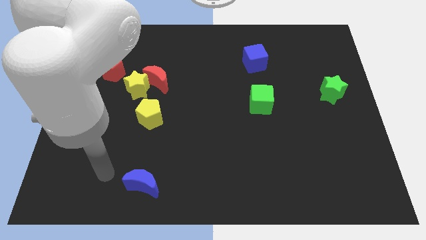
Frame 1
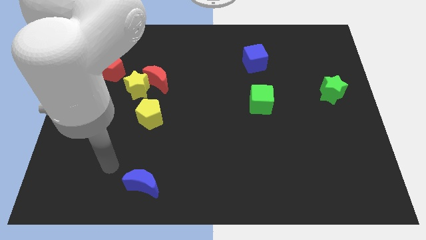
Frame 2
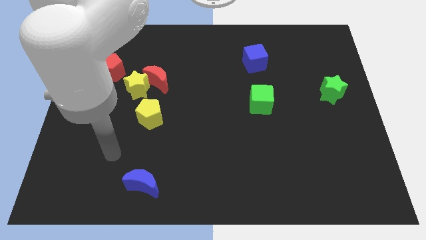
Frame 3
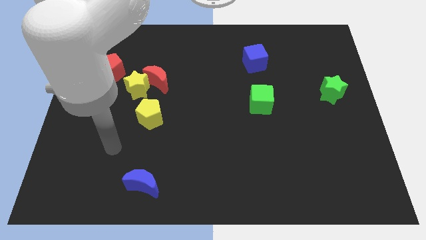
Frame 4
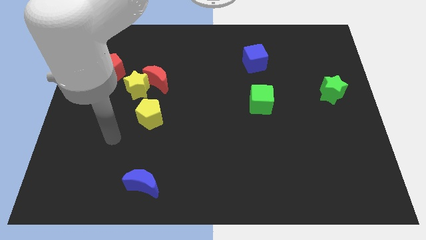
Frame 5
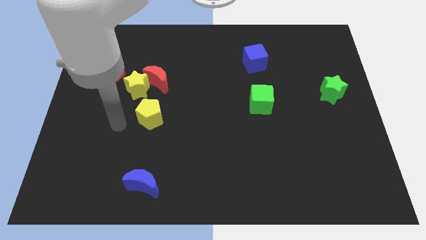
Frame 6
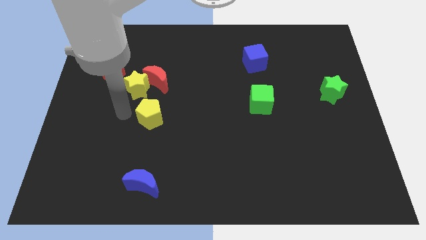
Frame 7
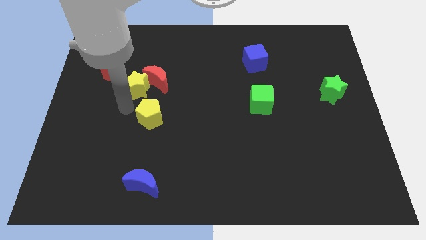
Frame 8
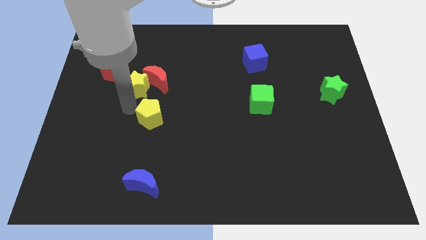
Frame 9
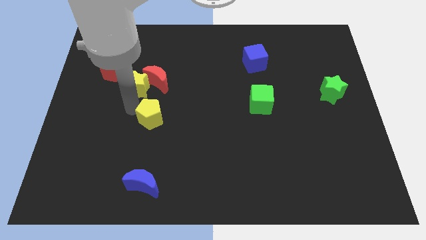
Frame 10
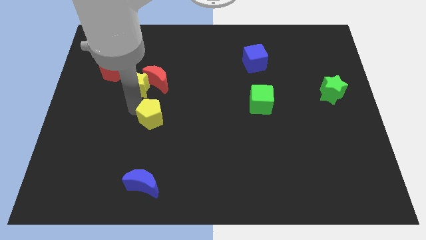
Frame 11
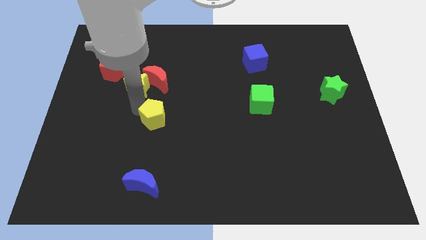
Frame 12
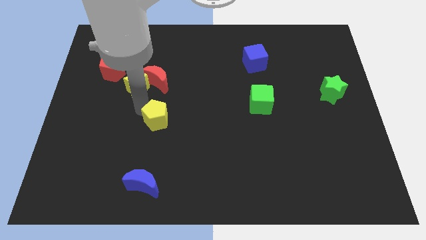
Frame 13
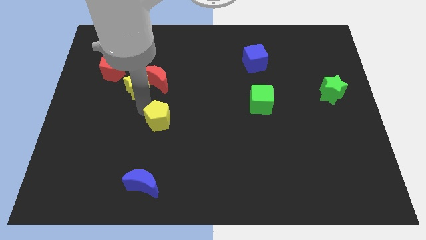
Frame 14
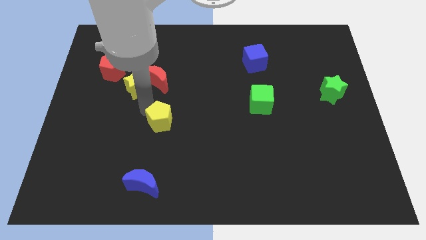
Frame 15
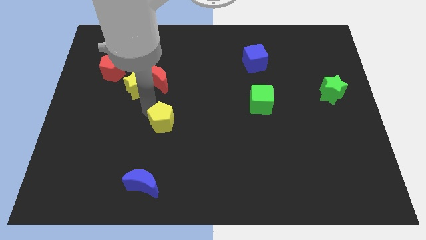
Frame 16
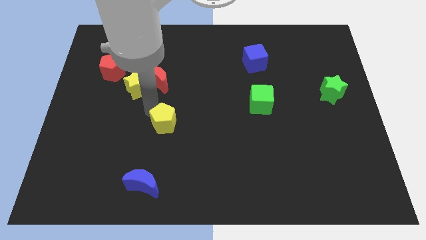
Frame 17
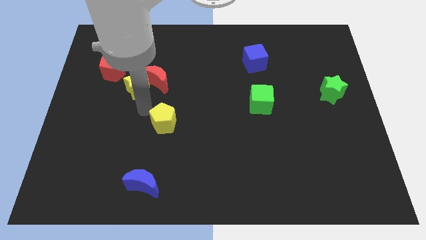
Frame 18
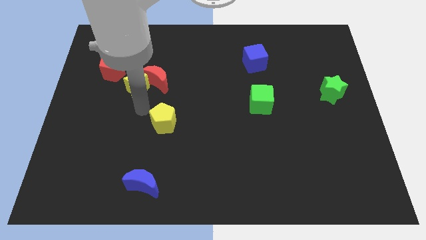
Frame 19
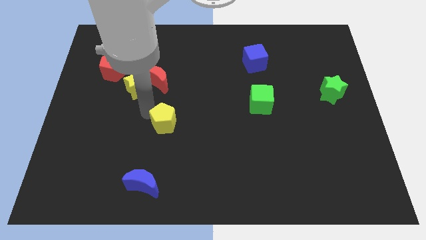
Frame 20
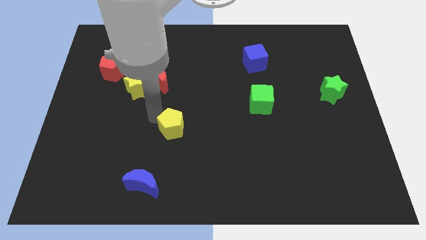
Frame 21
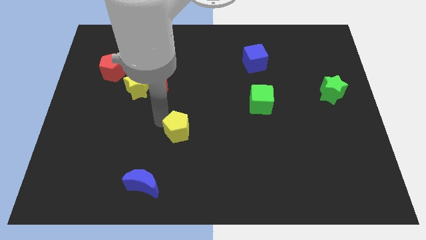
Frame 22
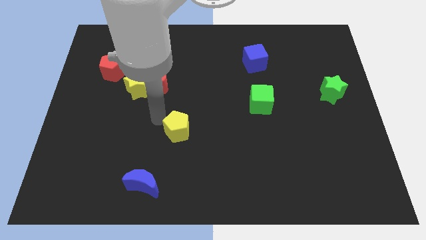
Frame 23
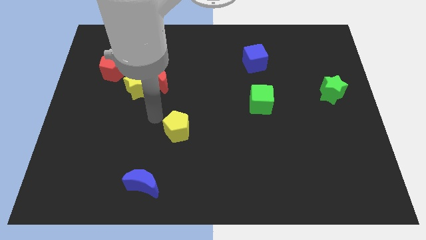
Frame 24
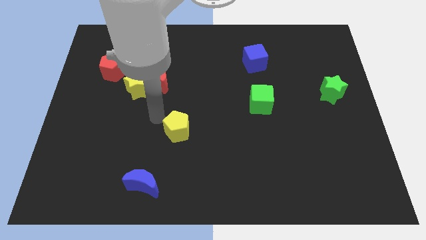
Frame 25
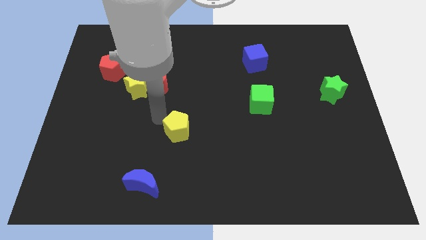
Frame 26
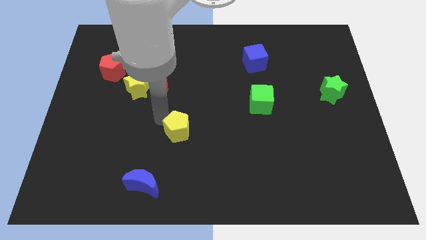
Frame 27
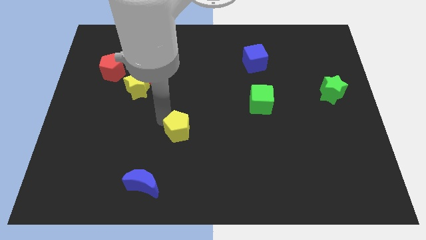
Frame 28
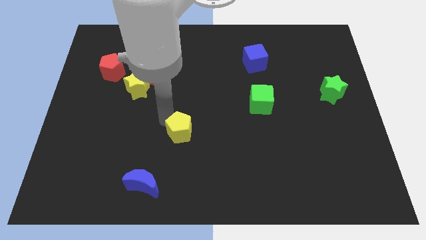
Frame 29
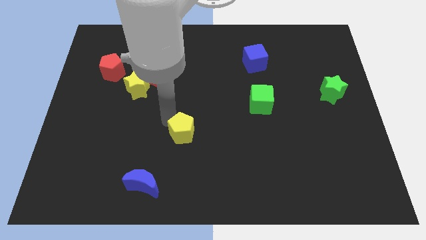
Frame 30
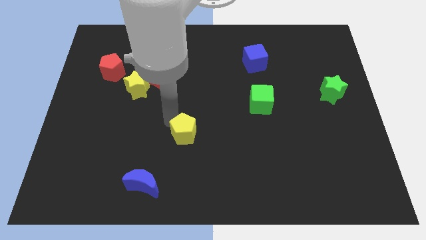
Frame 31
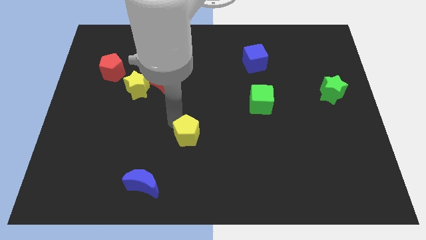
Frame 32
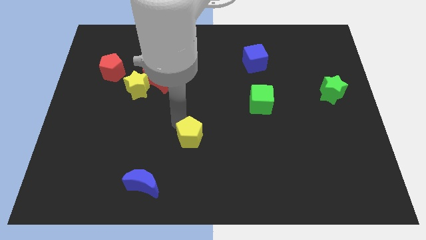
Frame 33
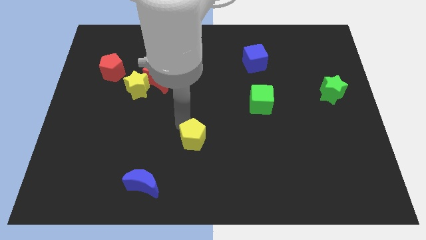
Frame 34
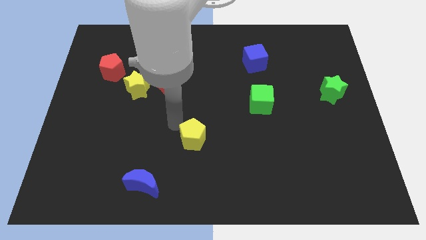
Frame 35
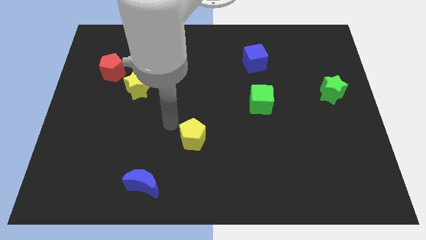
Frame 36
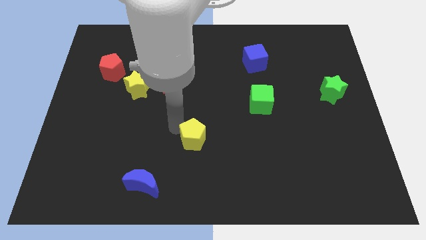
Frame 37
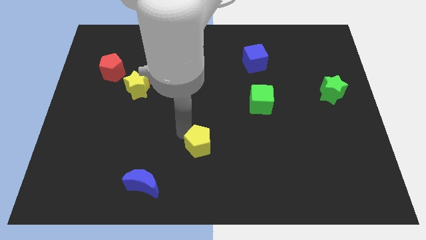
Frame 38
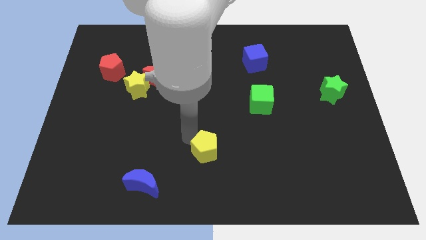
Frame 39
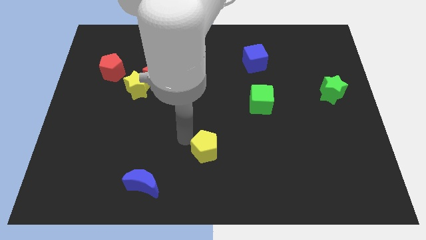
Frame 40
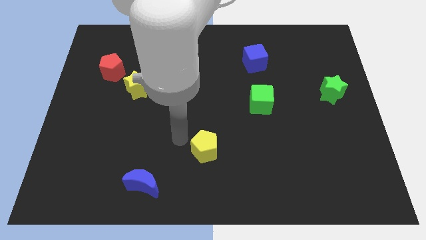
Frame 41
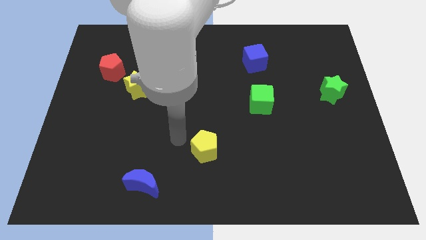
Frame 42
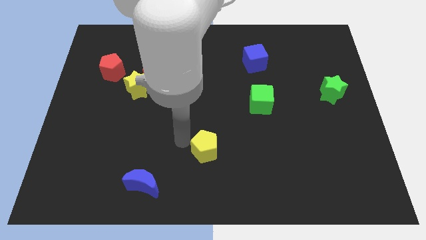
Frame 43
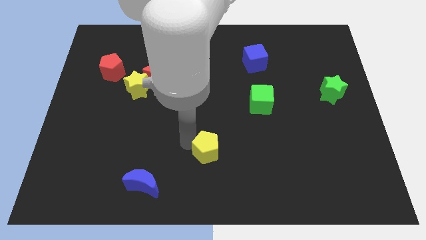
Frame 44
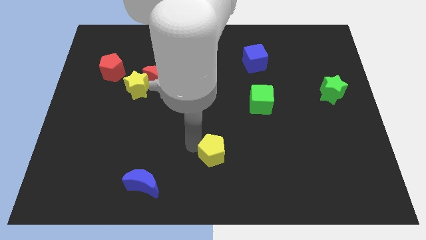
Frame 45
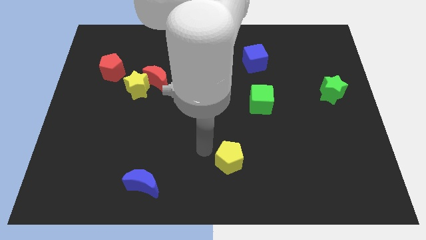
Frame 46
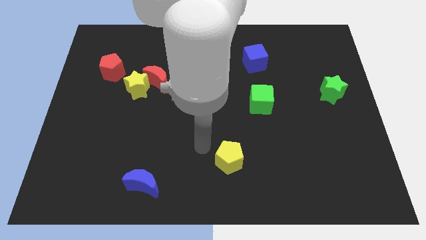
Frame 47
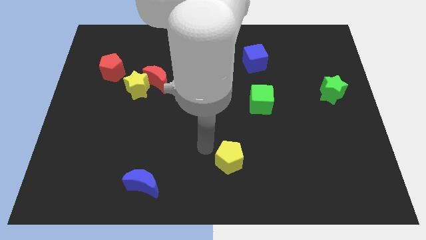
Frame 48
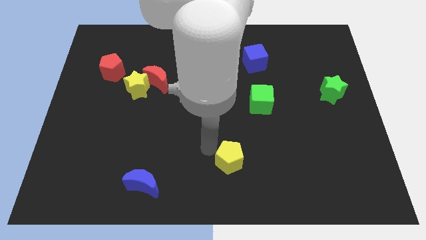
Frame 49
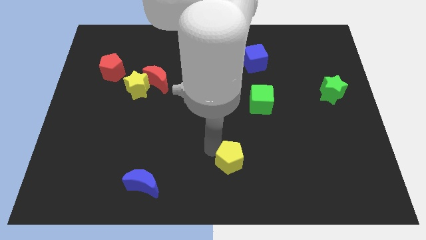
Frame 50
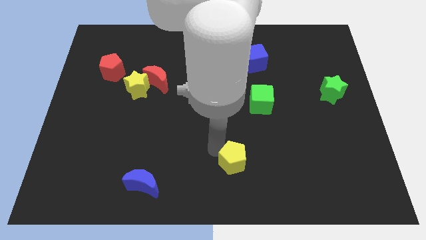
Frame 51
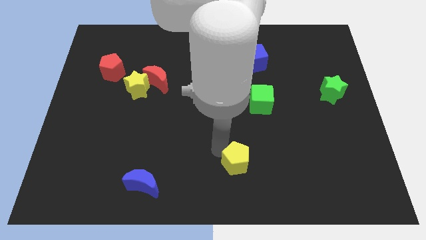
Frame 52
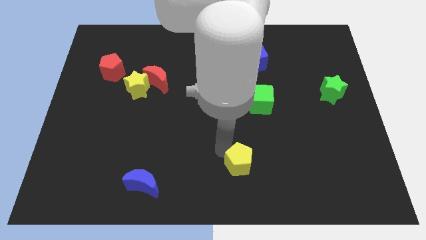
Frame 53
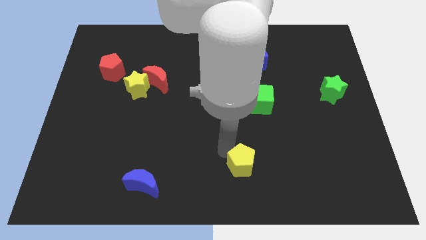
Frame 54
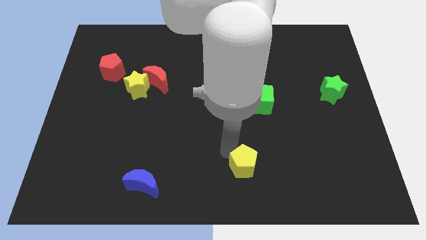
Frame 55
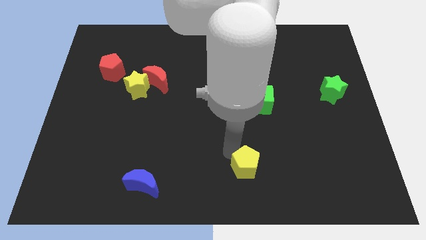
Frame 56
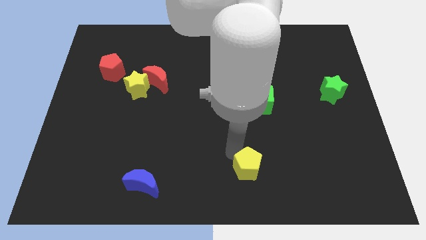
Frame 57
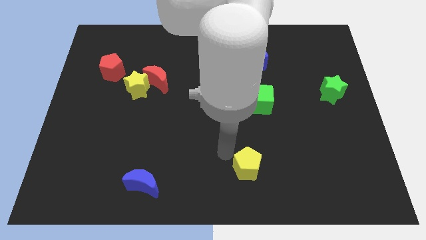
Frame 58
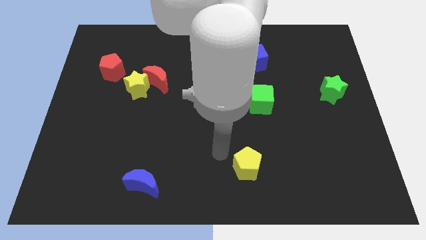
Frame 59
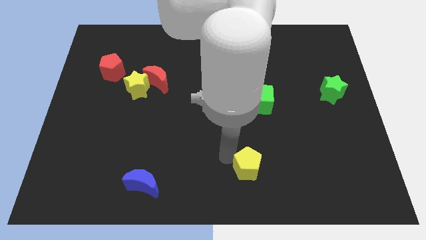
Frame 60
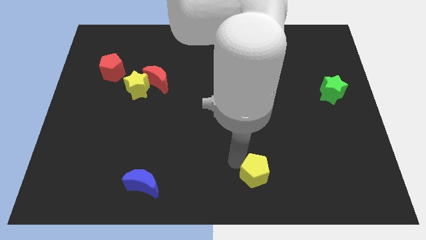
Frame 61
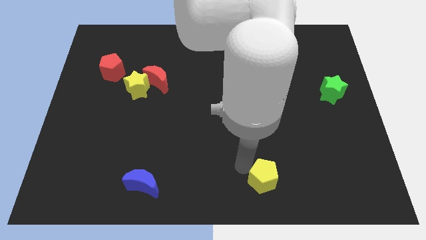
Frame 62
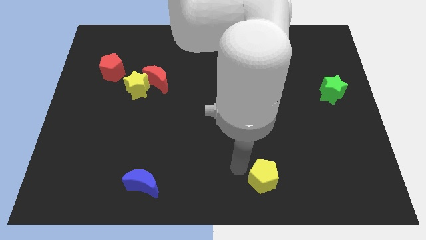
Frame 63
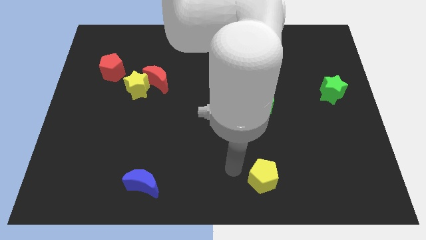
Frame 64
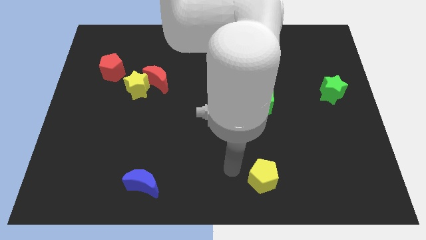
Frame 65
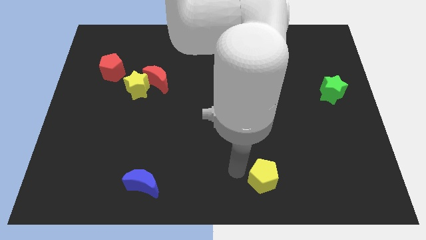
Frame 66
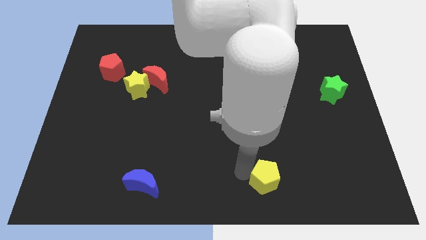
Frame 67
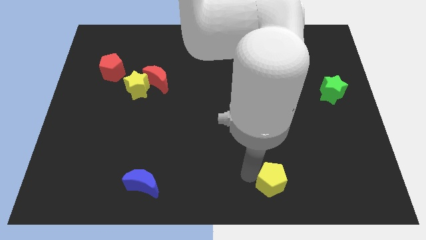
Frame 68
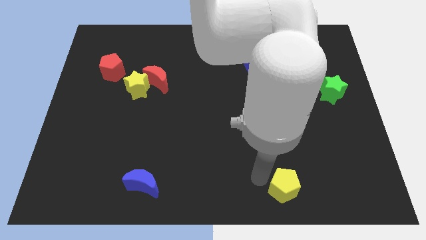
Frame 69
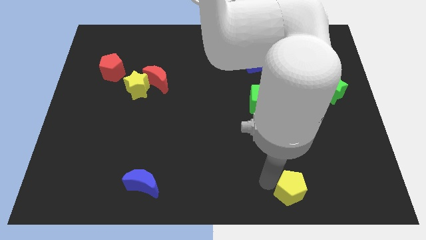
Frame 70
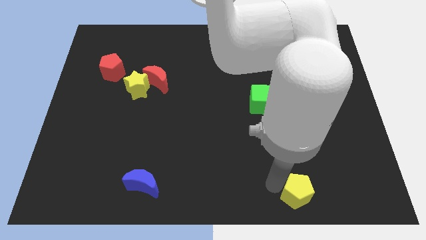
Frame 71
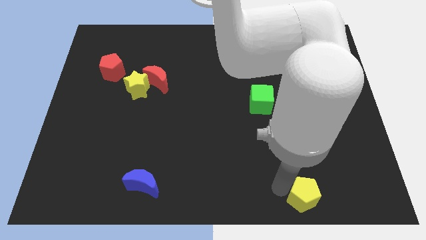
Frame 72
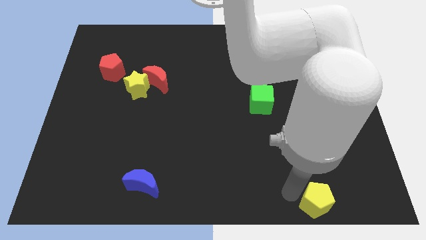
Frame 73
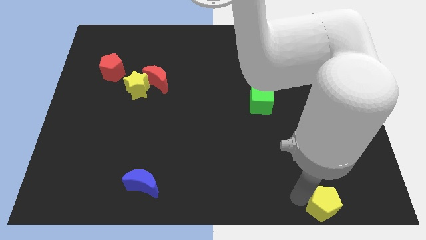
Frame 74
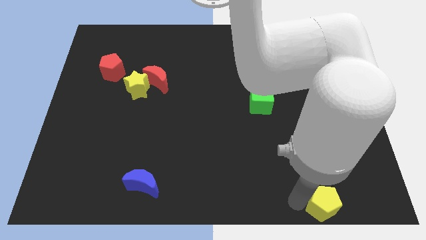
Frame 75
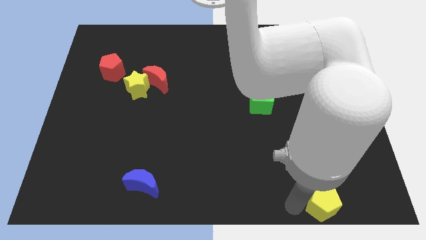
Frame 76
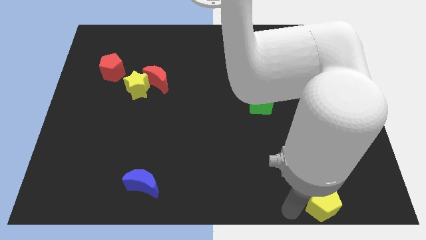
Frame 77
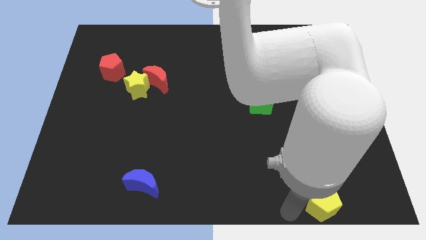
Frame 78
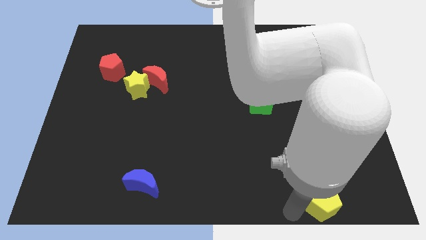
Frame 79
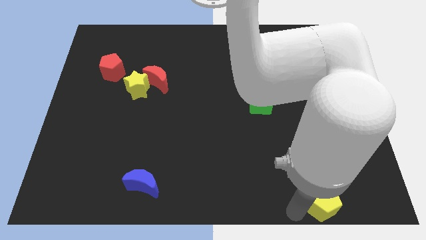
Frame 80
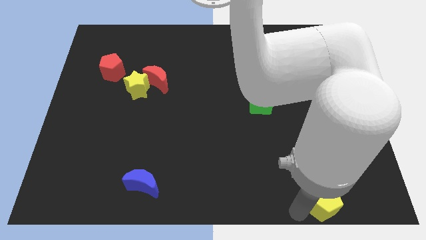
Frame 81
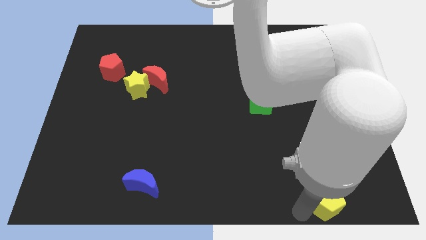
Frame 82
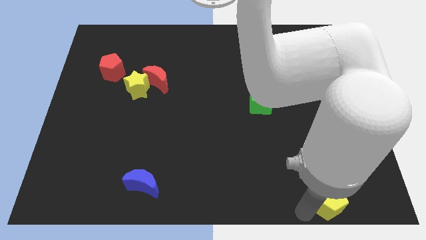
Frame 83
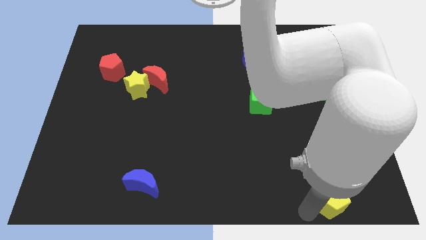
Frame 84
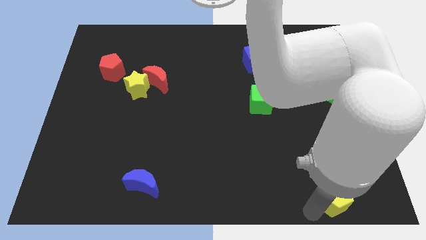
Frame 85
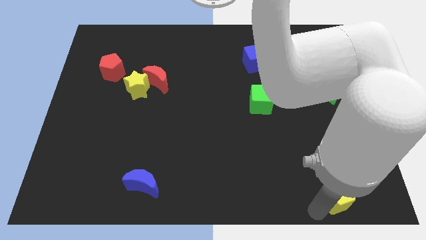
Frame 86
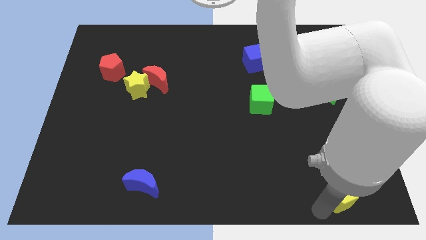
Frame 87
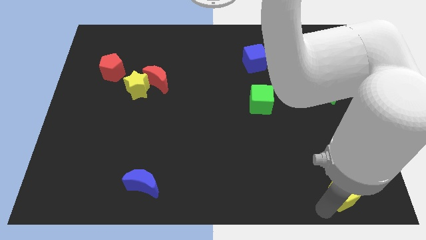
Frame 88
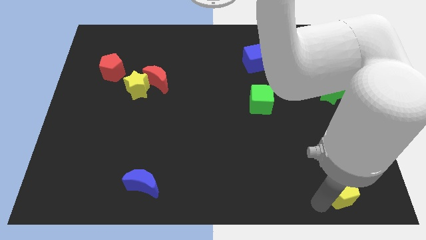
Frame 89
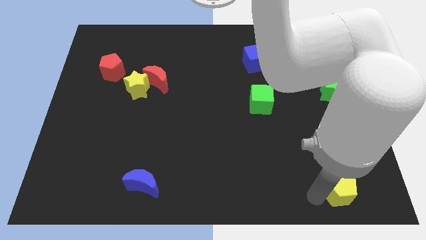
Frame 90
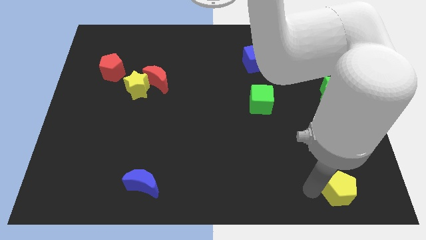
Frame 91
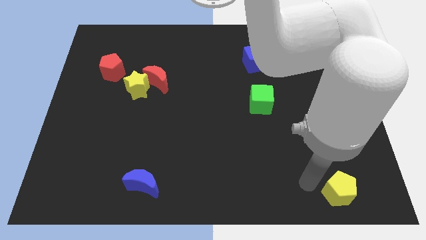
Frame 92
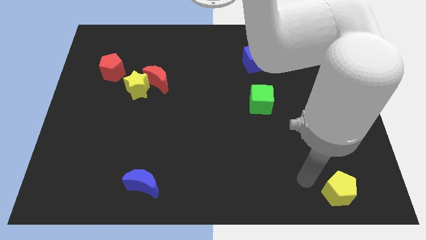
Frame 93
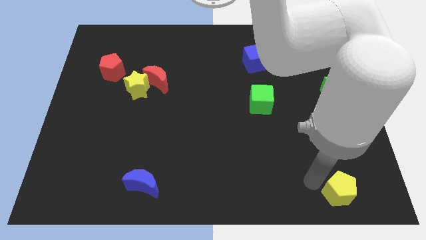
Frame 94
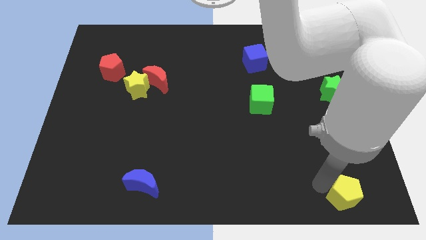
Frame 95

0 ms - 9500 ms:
move the yellow pentagon to the bottom right of the board
